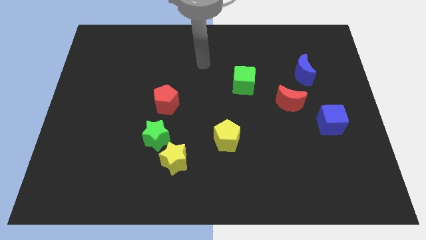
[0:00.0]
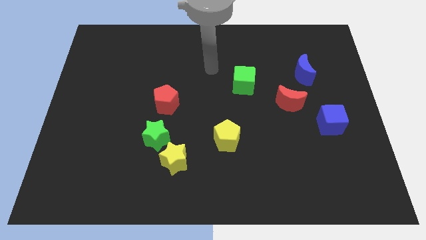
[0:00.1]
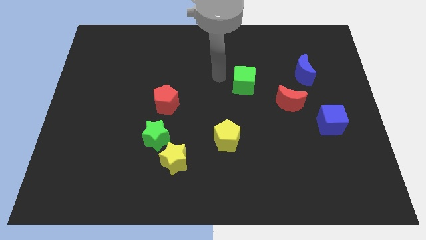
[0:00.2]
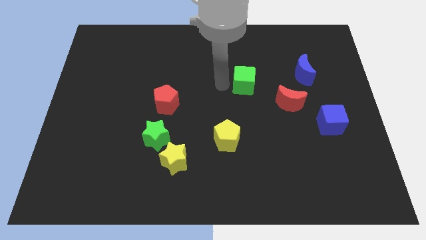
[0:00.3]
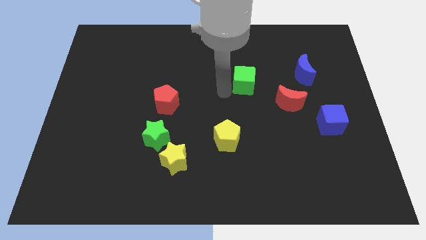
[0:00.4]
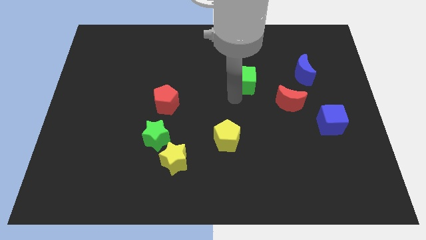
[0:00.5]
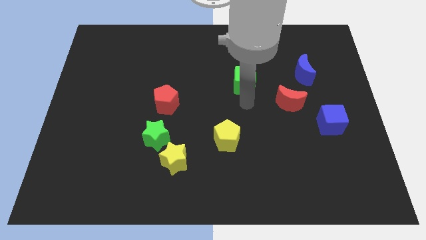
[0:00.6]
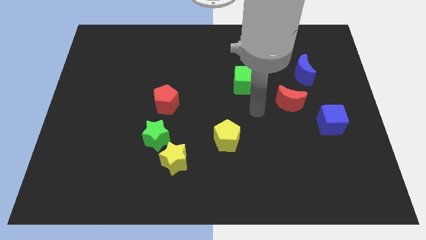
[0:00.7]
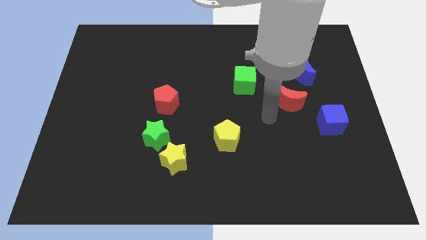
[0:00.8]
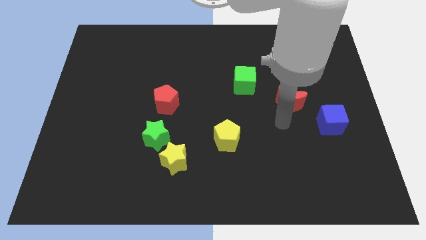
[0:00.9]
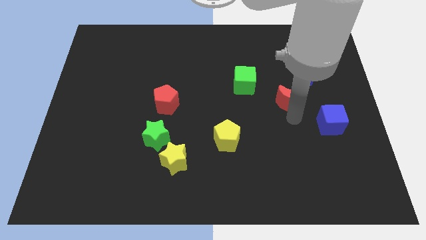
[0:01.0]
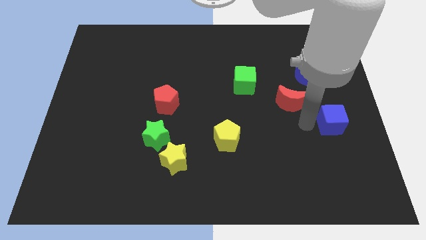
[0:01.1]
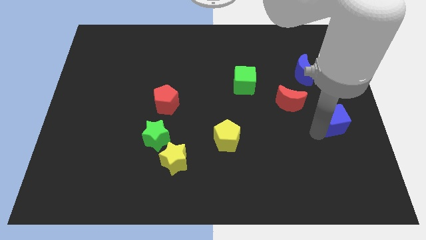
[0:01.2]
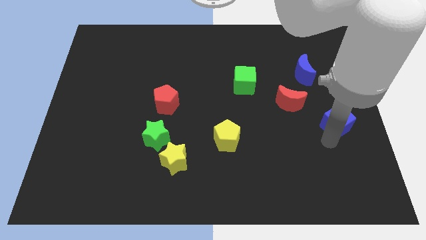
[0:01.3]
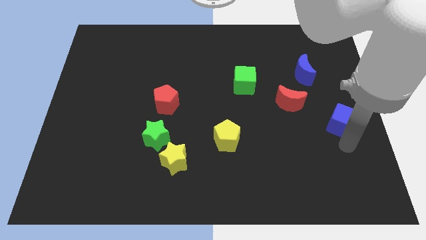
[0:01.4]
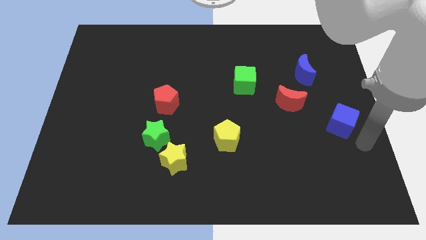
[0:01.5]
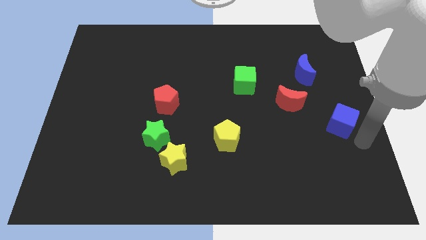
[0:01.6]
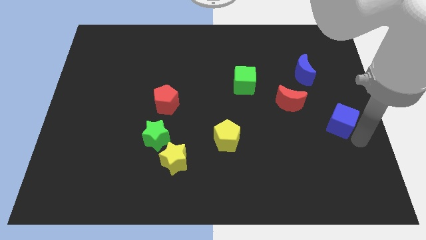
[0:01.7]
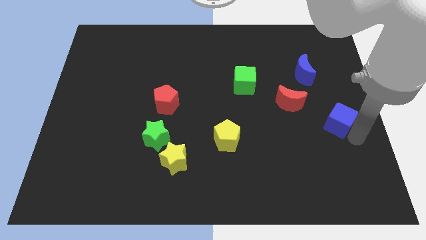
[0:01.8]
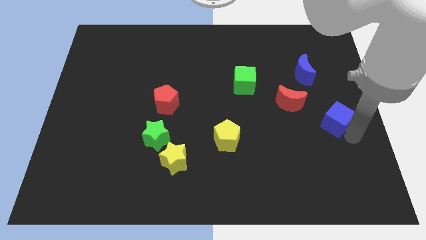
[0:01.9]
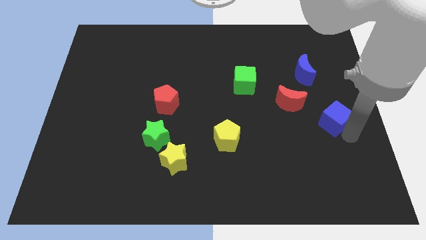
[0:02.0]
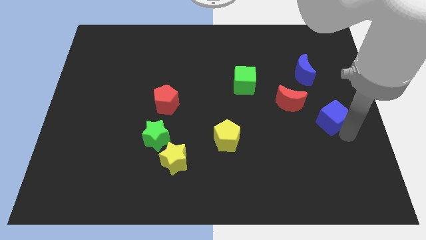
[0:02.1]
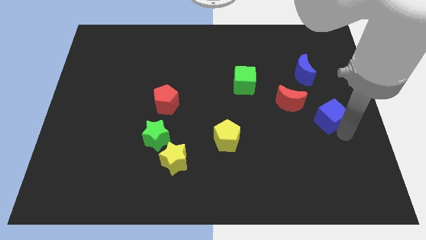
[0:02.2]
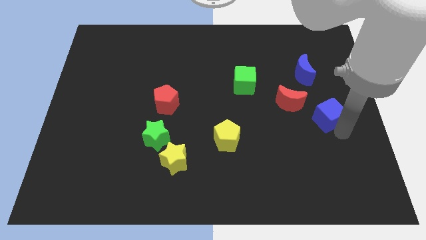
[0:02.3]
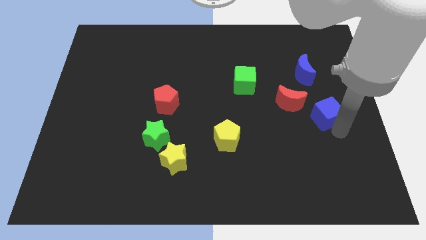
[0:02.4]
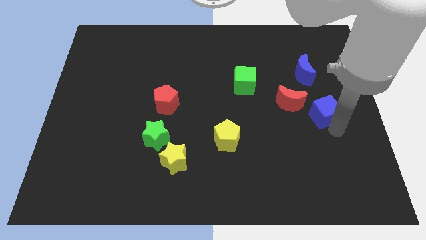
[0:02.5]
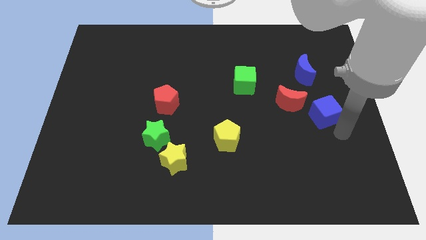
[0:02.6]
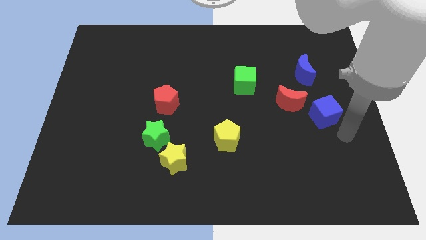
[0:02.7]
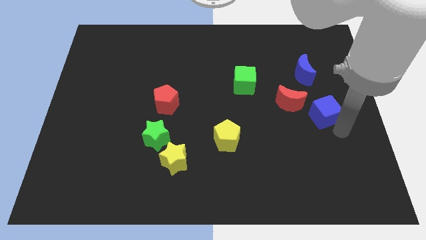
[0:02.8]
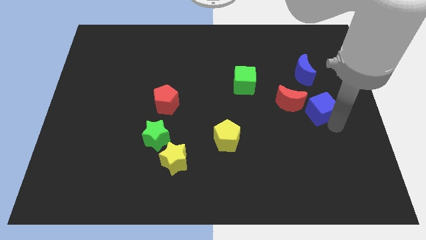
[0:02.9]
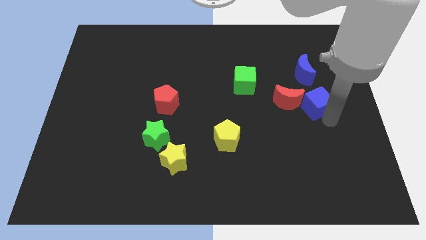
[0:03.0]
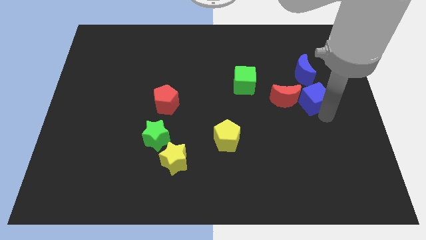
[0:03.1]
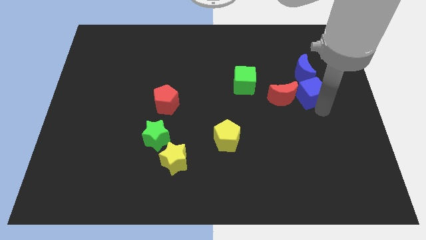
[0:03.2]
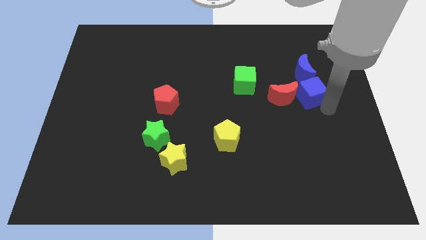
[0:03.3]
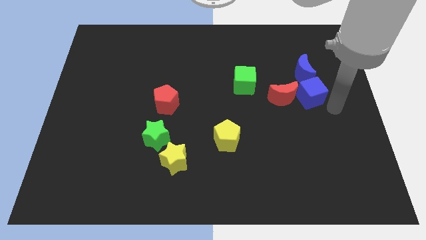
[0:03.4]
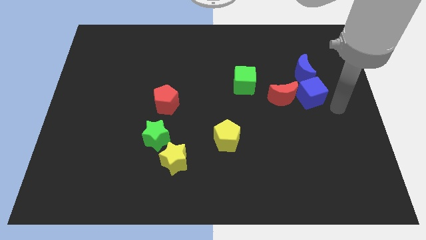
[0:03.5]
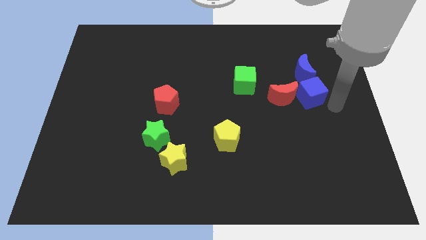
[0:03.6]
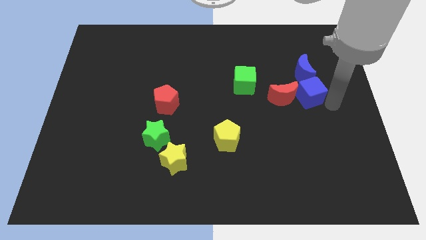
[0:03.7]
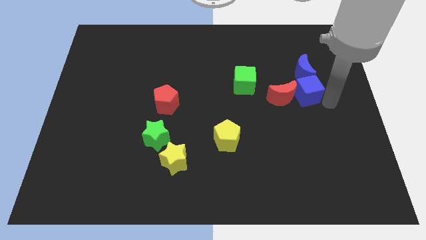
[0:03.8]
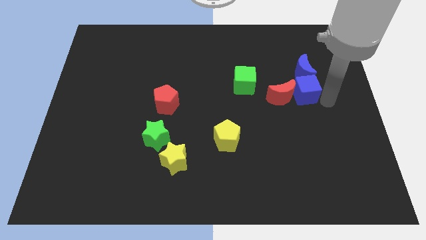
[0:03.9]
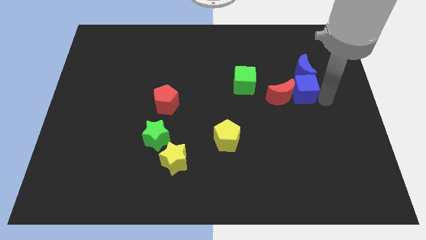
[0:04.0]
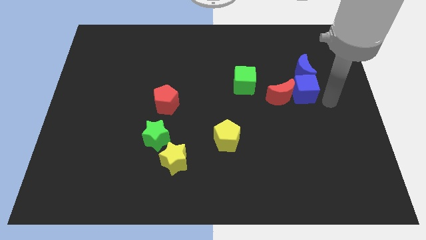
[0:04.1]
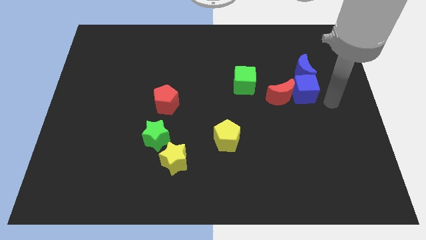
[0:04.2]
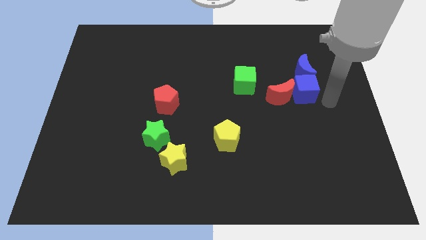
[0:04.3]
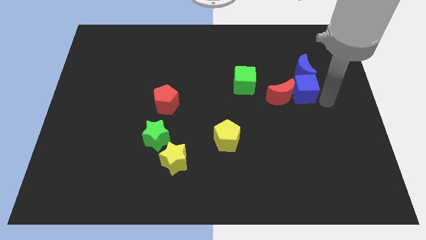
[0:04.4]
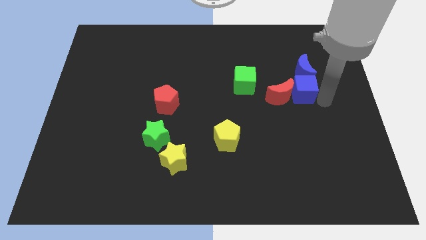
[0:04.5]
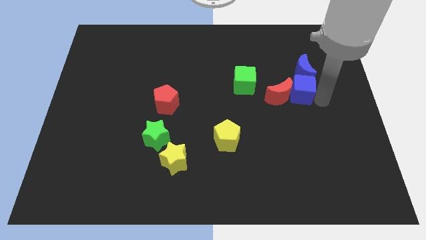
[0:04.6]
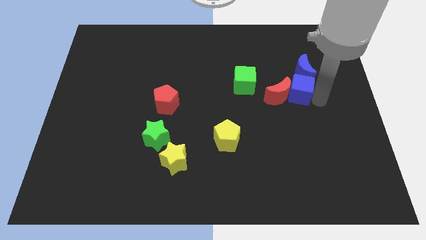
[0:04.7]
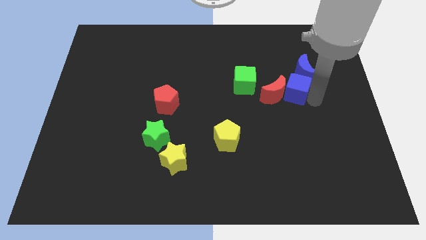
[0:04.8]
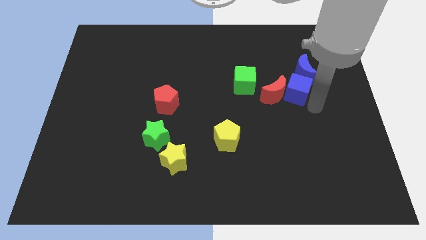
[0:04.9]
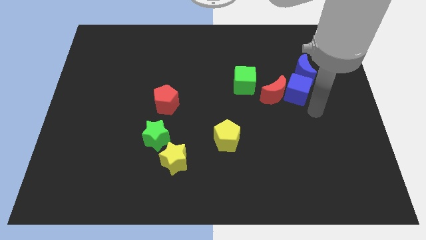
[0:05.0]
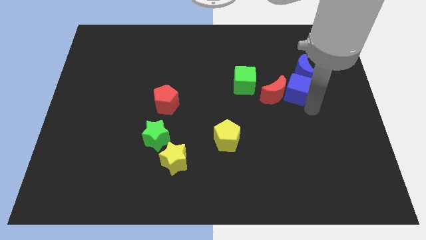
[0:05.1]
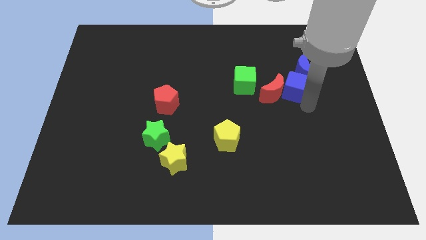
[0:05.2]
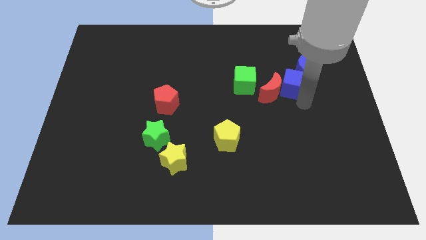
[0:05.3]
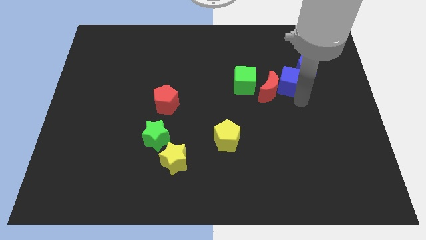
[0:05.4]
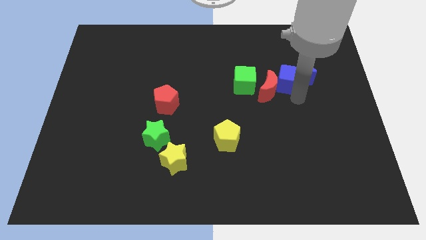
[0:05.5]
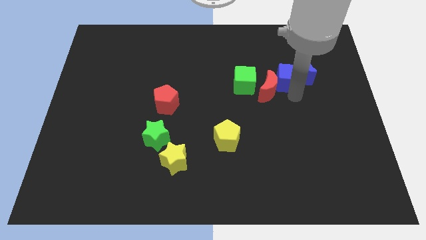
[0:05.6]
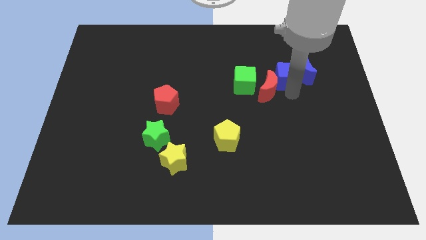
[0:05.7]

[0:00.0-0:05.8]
slide the blue cube to the top side of the red moon

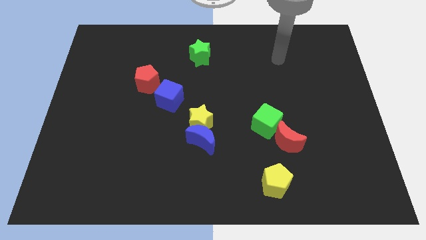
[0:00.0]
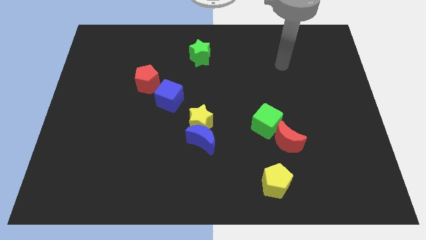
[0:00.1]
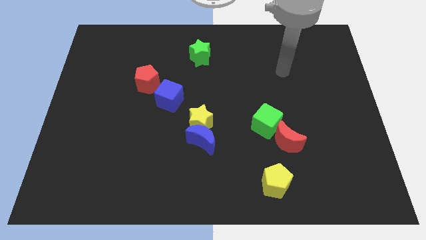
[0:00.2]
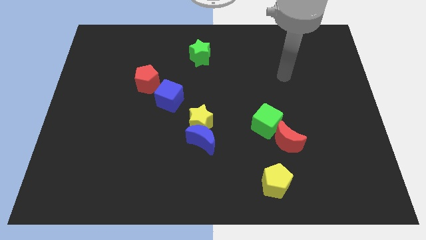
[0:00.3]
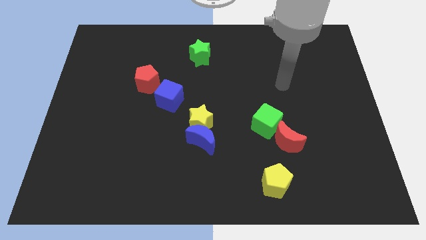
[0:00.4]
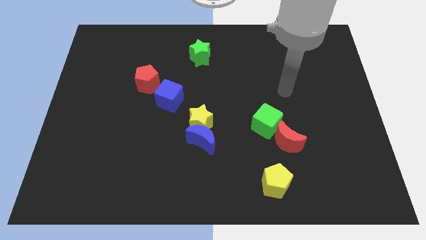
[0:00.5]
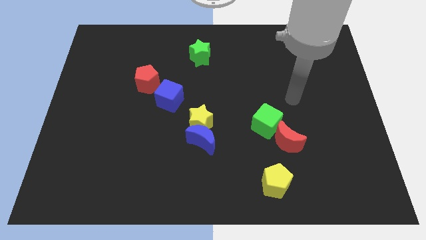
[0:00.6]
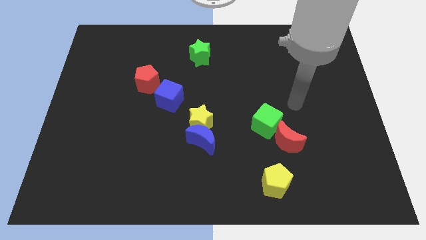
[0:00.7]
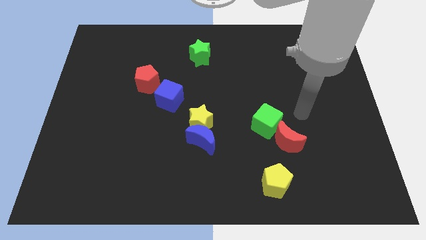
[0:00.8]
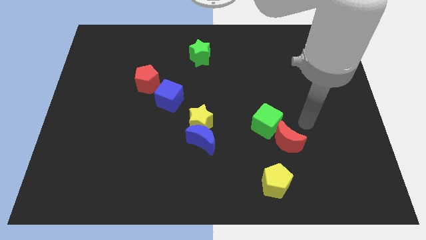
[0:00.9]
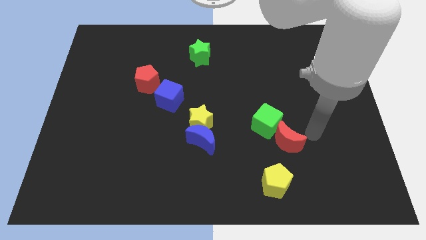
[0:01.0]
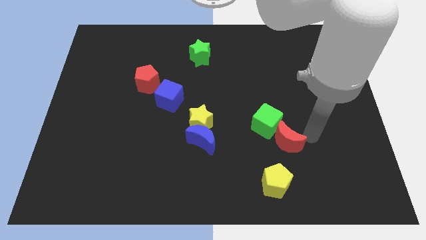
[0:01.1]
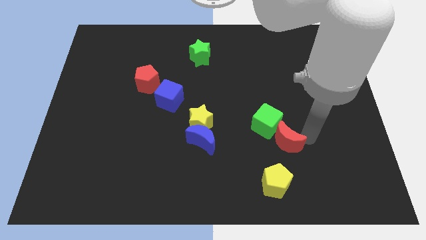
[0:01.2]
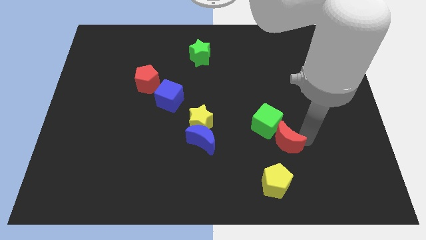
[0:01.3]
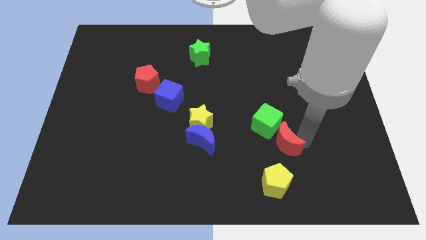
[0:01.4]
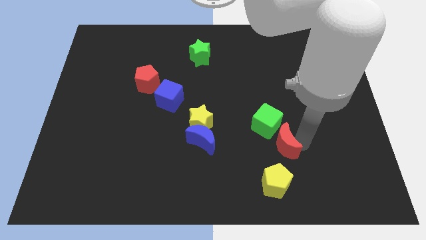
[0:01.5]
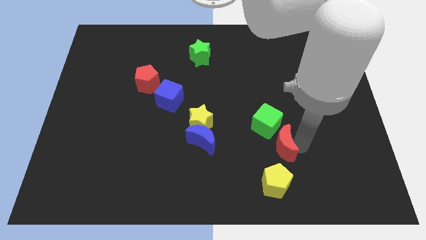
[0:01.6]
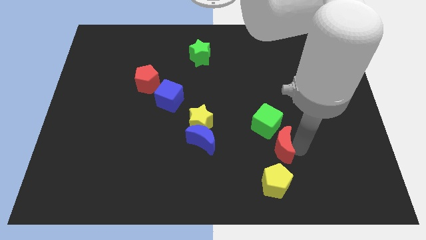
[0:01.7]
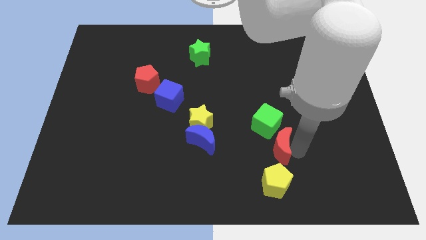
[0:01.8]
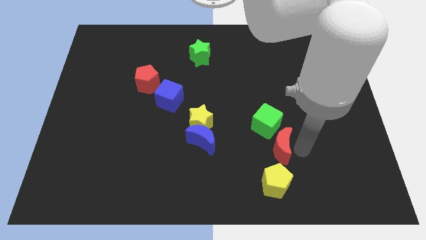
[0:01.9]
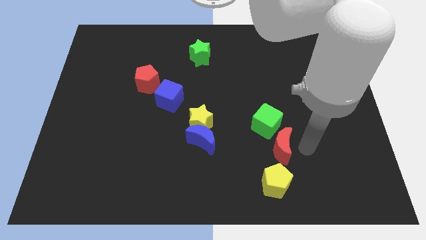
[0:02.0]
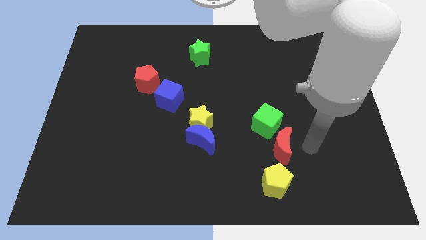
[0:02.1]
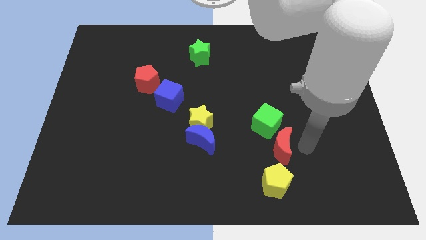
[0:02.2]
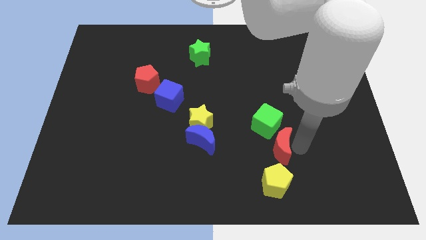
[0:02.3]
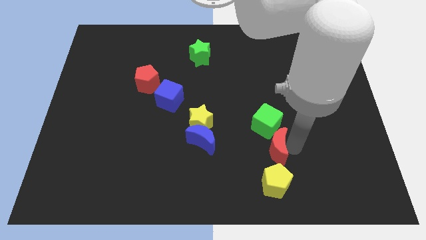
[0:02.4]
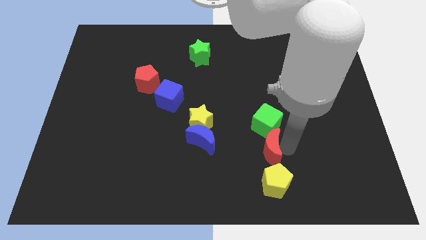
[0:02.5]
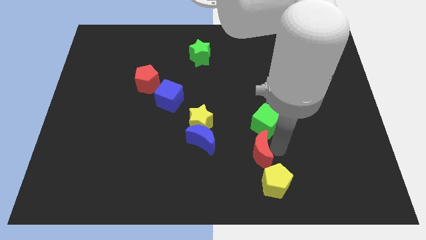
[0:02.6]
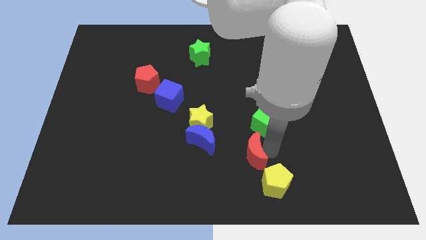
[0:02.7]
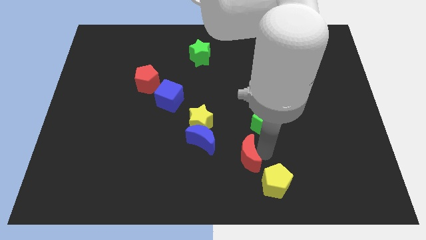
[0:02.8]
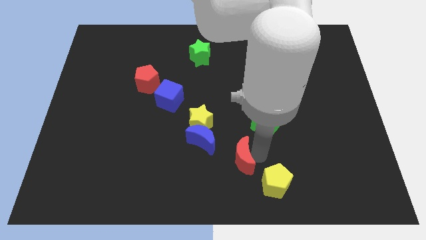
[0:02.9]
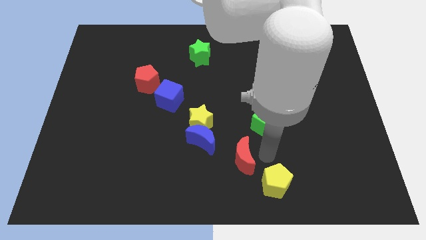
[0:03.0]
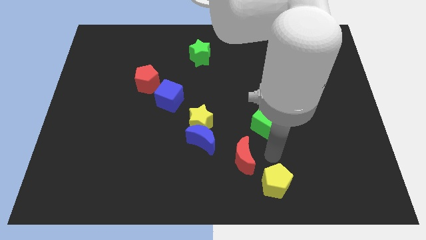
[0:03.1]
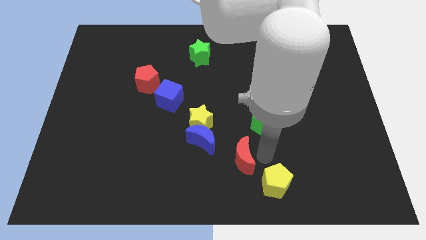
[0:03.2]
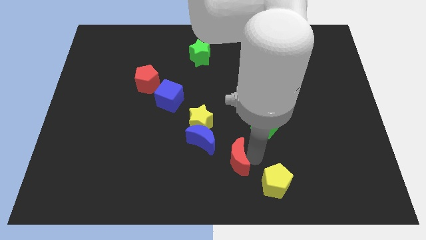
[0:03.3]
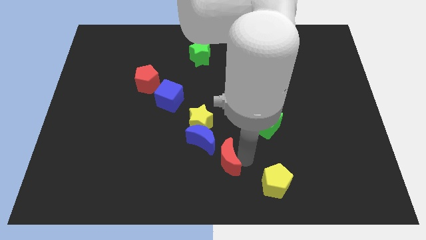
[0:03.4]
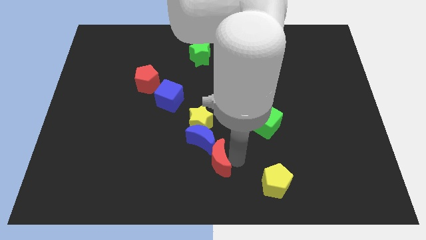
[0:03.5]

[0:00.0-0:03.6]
push the red moon to the bottom side of the yellow star
